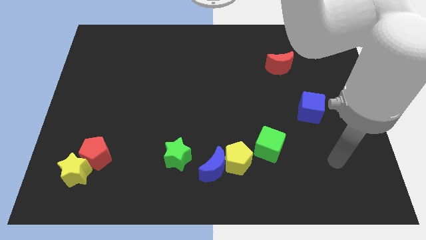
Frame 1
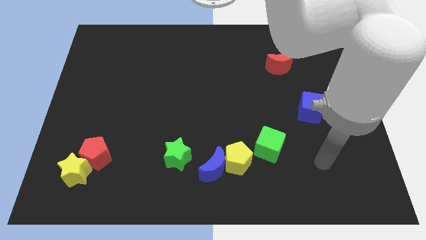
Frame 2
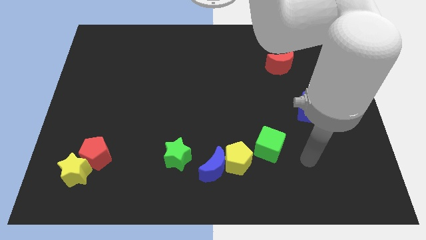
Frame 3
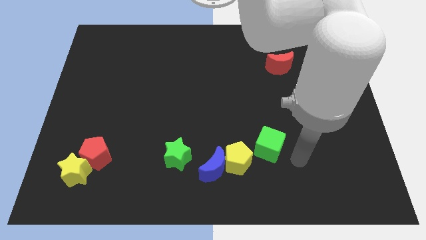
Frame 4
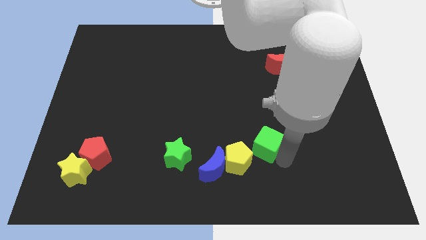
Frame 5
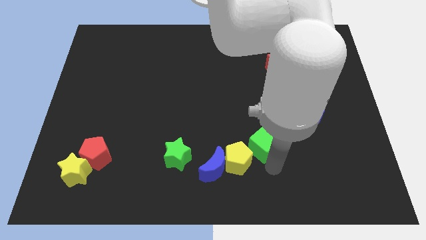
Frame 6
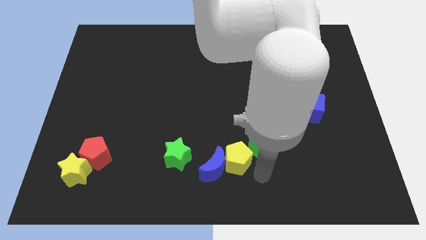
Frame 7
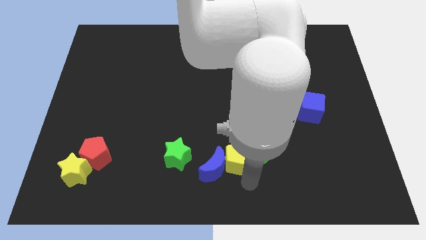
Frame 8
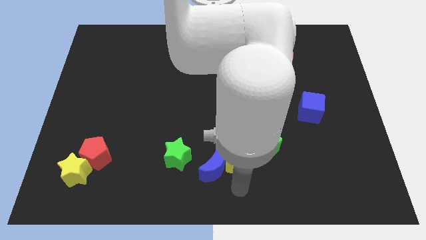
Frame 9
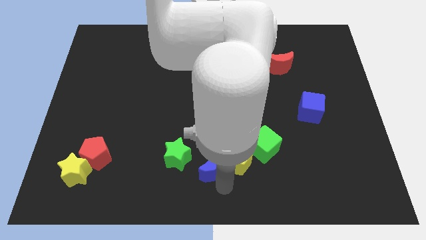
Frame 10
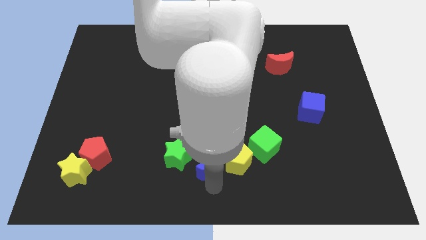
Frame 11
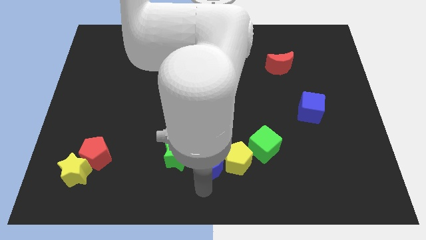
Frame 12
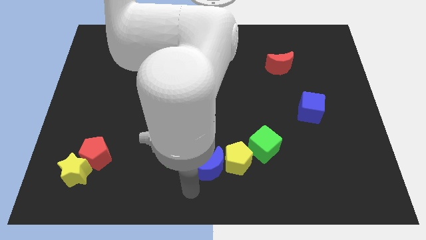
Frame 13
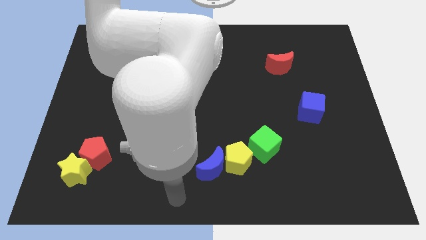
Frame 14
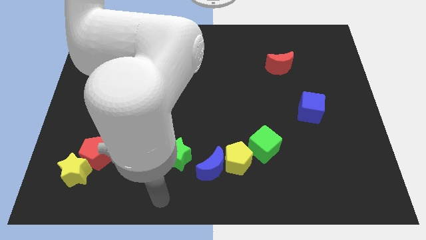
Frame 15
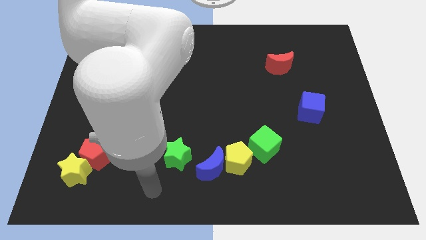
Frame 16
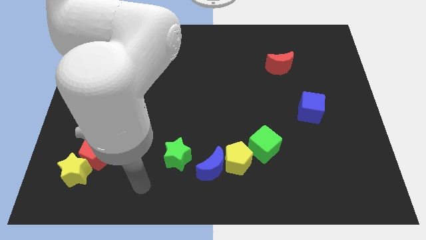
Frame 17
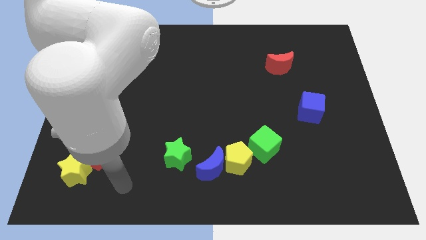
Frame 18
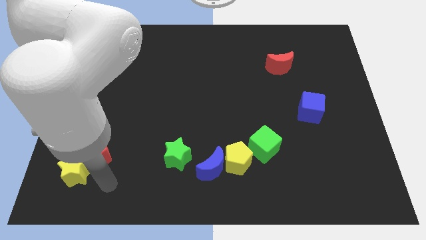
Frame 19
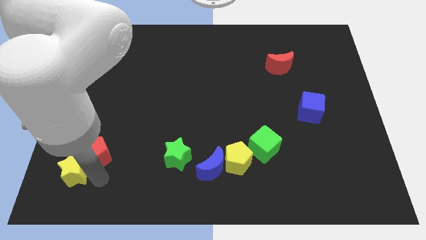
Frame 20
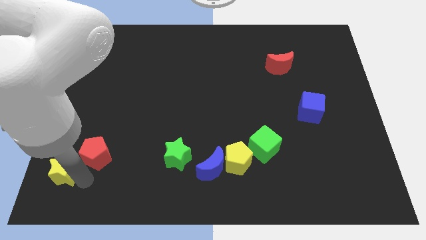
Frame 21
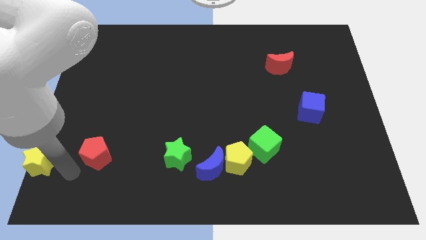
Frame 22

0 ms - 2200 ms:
move the red pentagon away from the yellow star

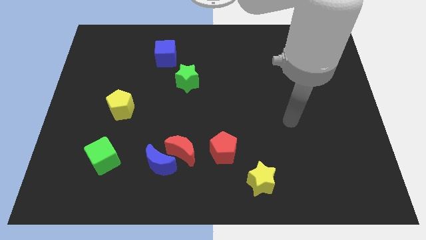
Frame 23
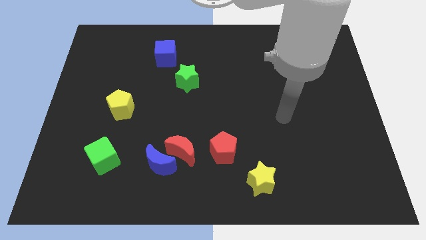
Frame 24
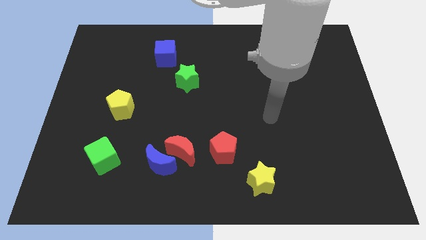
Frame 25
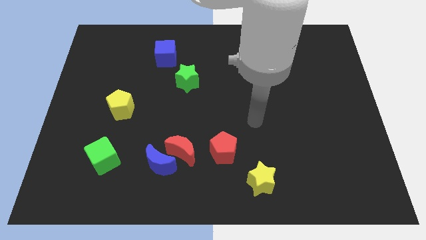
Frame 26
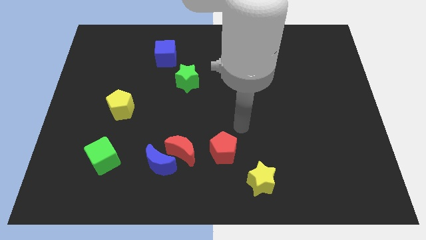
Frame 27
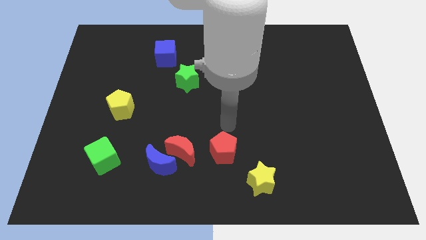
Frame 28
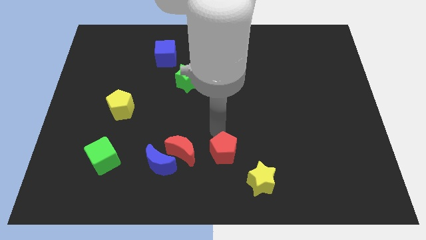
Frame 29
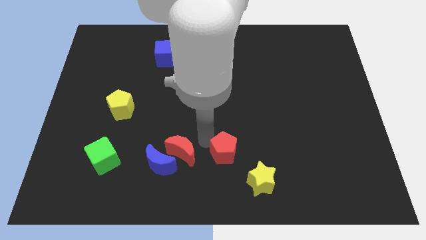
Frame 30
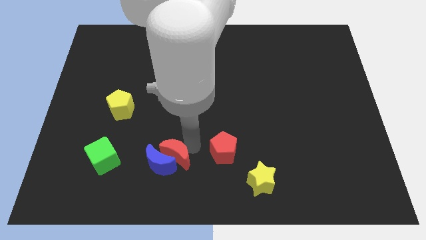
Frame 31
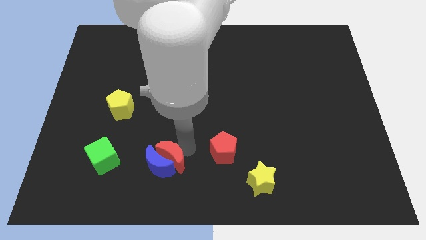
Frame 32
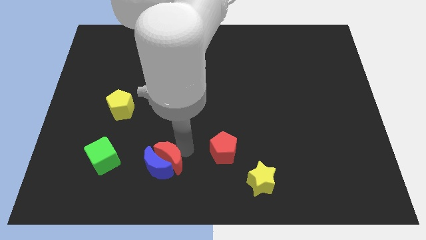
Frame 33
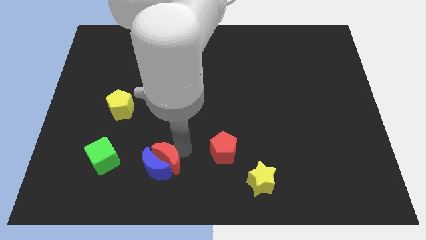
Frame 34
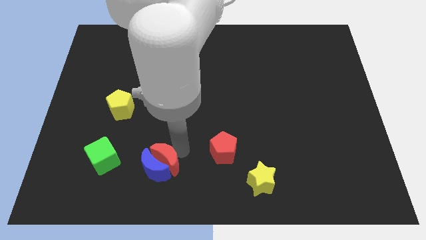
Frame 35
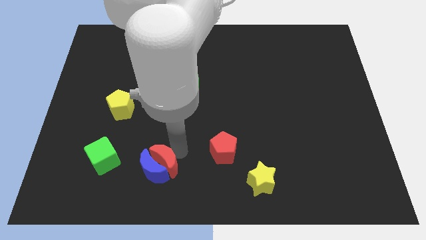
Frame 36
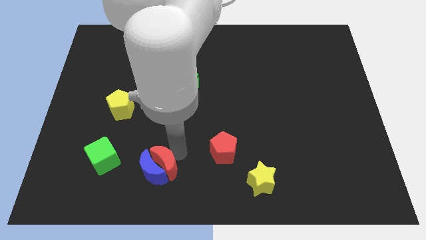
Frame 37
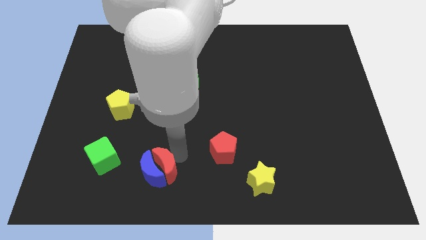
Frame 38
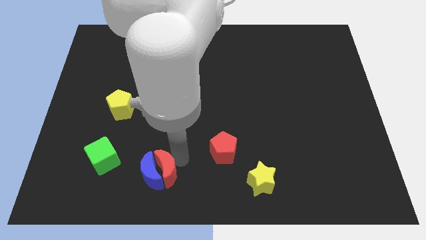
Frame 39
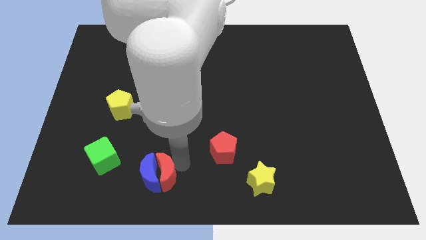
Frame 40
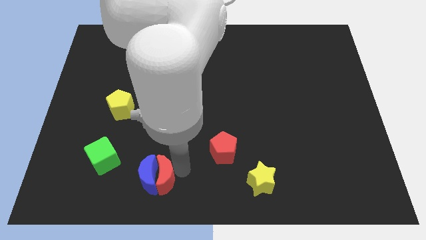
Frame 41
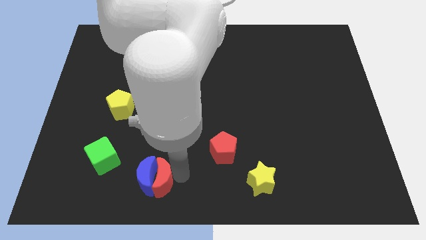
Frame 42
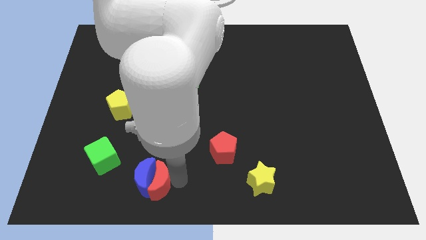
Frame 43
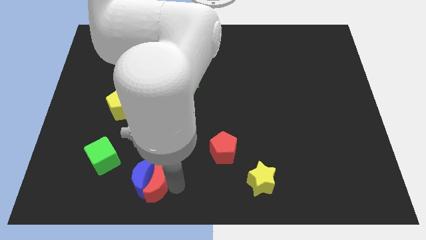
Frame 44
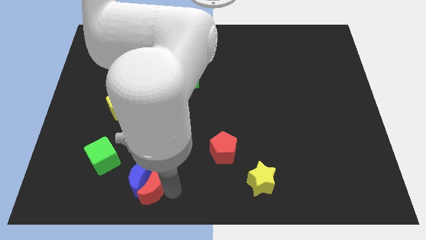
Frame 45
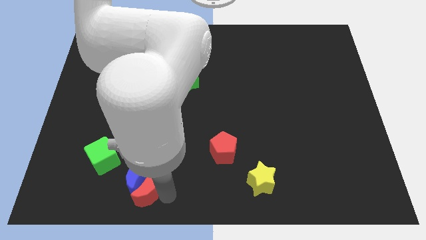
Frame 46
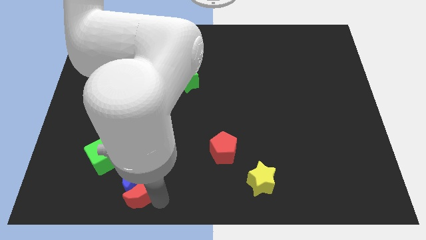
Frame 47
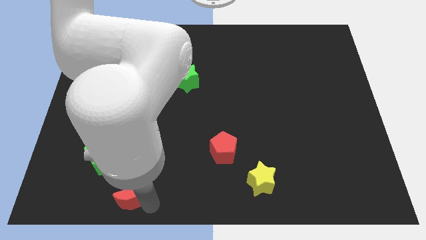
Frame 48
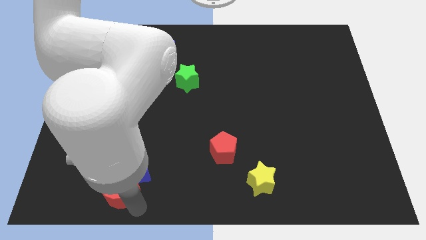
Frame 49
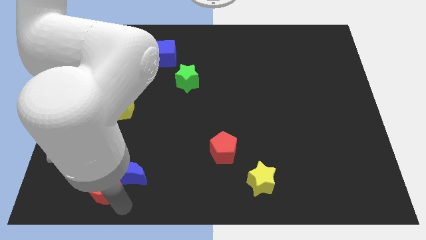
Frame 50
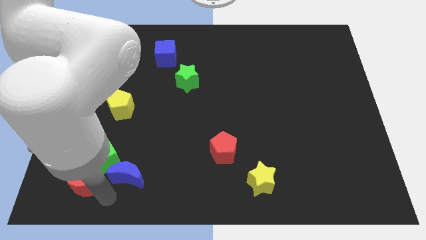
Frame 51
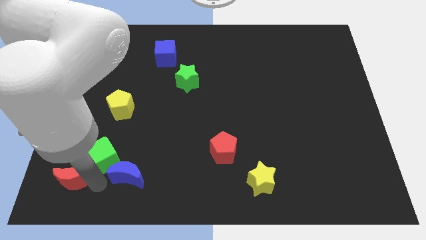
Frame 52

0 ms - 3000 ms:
separate the blue moon from the red moon

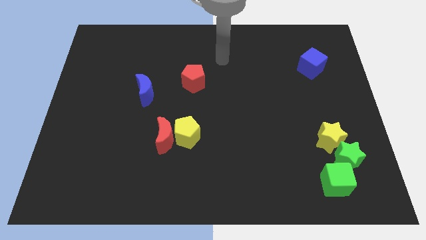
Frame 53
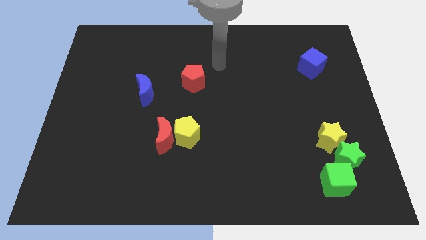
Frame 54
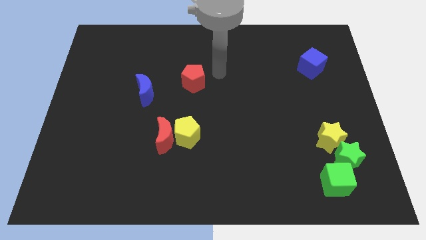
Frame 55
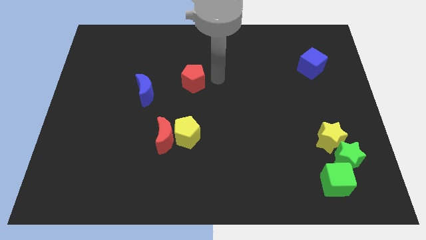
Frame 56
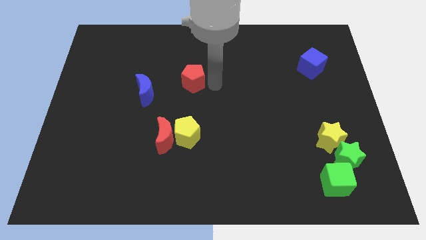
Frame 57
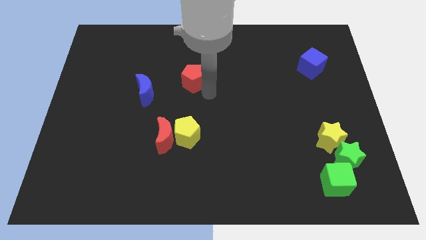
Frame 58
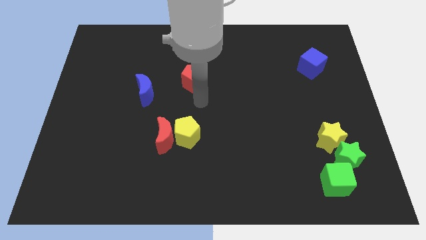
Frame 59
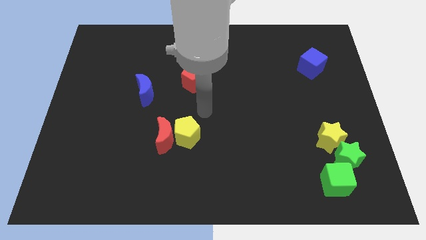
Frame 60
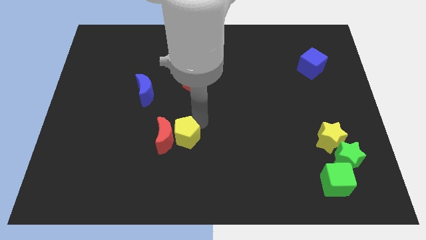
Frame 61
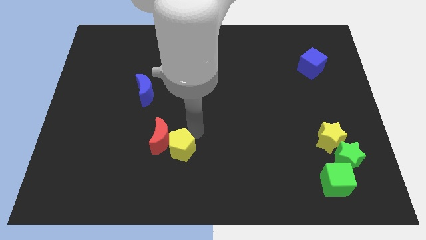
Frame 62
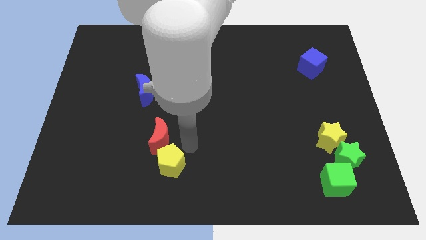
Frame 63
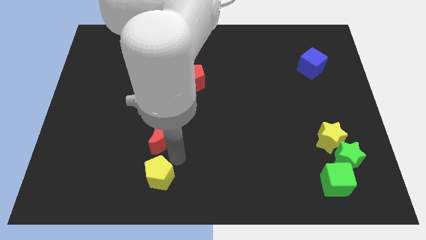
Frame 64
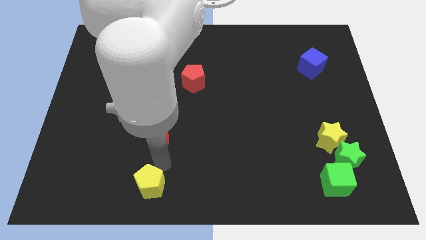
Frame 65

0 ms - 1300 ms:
pull the red moon apart from the yellow pentagon

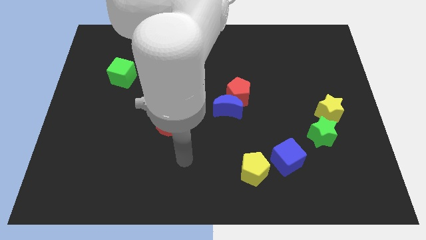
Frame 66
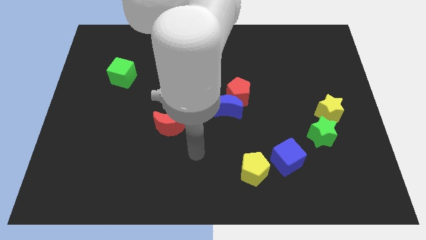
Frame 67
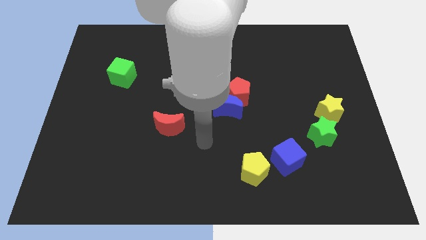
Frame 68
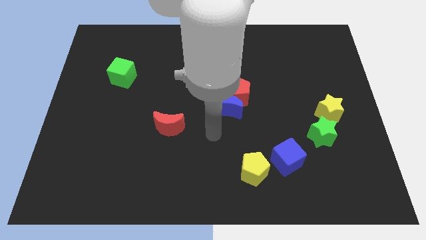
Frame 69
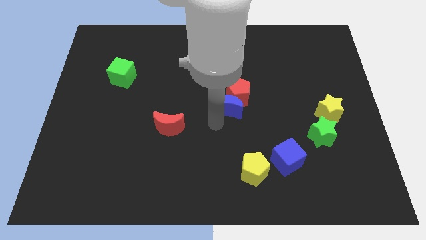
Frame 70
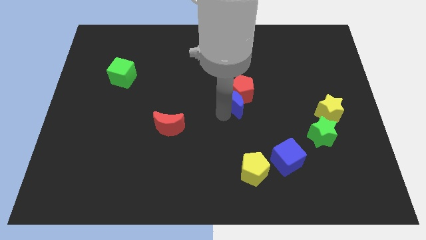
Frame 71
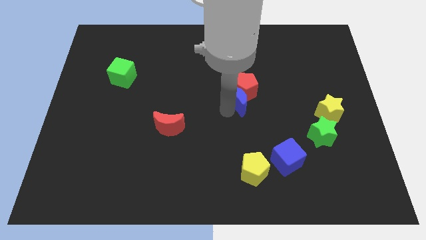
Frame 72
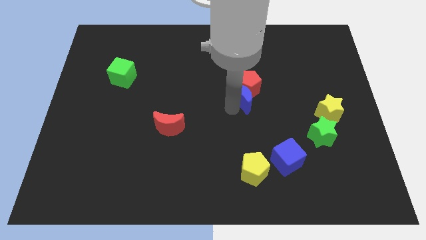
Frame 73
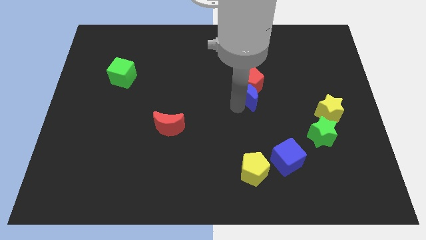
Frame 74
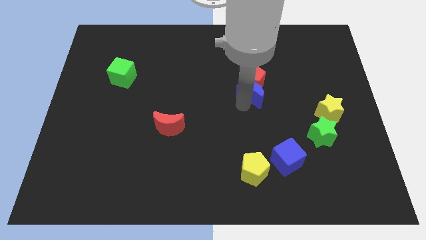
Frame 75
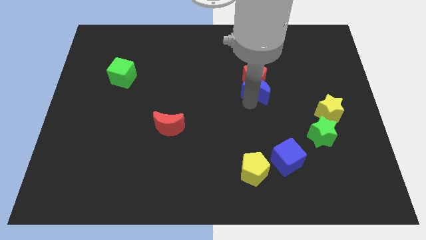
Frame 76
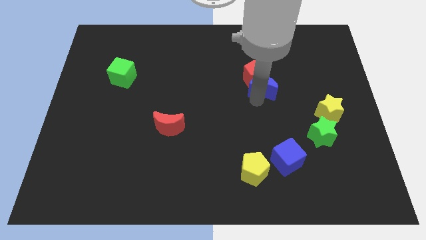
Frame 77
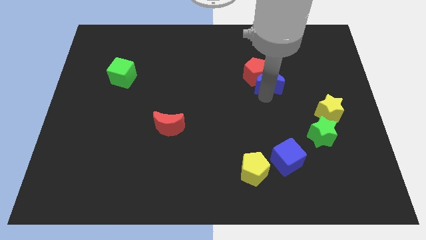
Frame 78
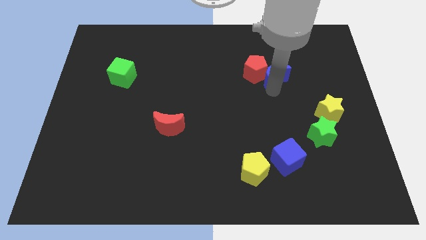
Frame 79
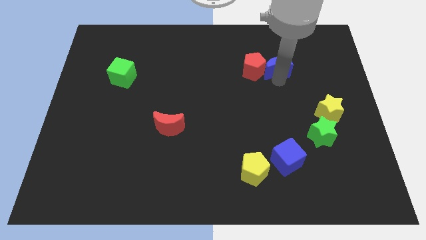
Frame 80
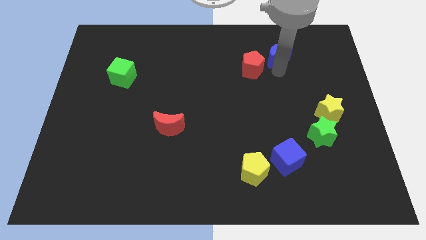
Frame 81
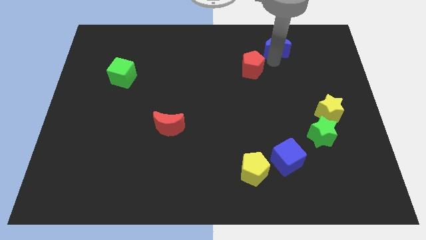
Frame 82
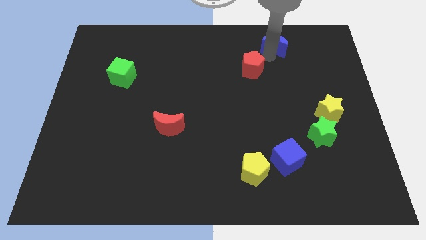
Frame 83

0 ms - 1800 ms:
move the red pentagon away from the blue moon

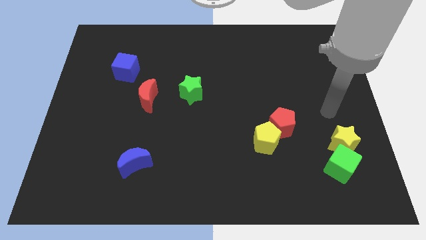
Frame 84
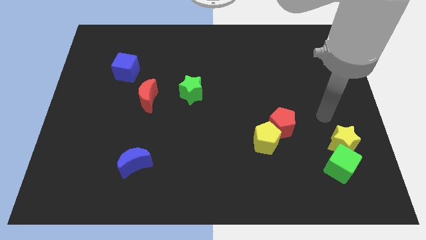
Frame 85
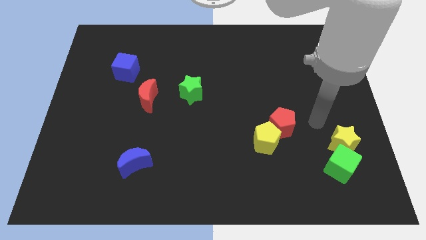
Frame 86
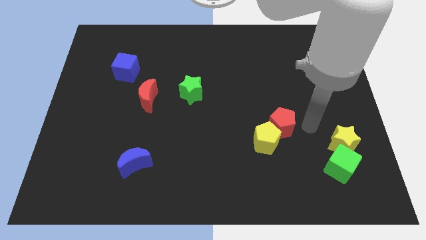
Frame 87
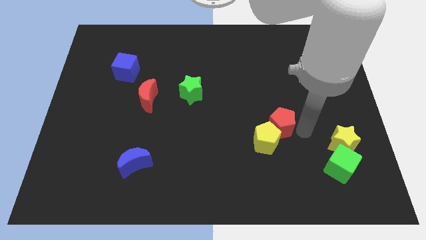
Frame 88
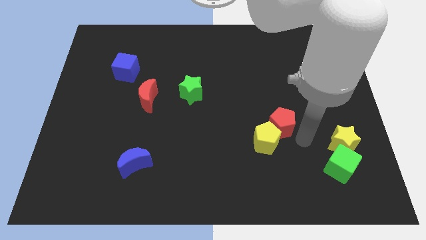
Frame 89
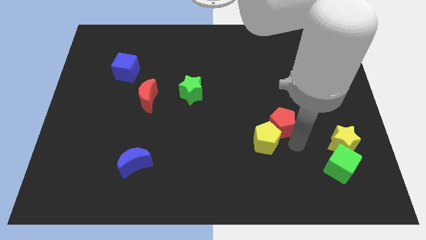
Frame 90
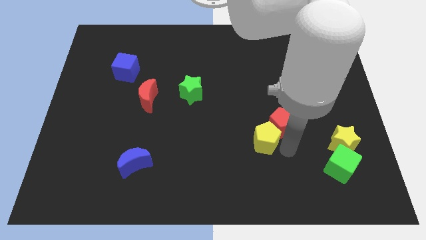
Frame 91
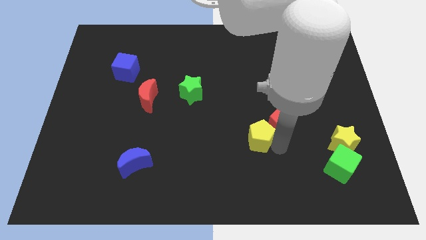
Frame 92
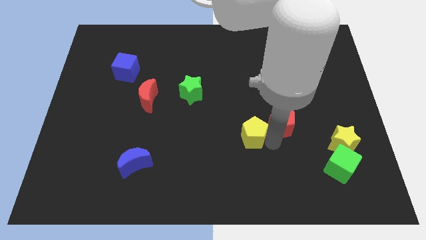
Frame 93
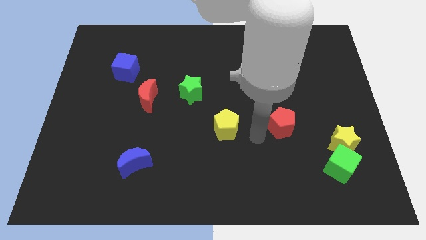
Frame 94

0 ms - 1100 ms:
separate the red pentagon from the yellow pentagon

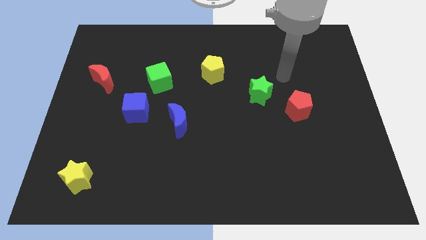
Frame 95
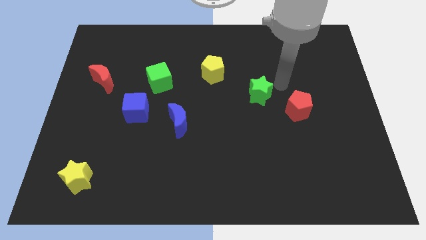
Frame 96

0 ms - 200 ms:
move the red pentagon away from the green star
